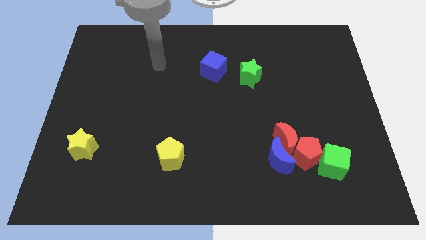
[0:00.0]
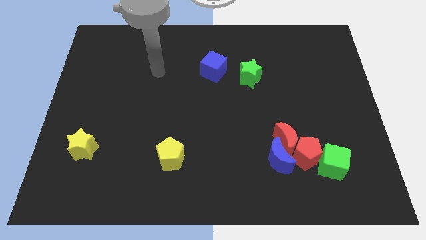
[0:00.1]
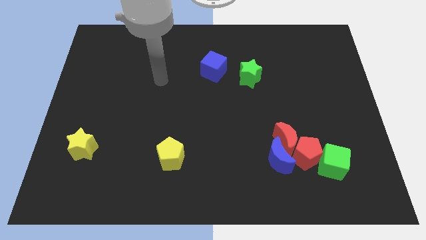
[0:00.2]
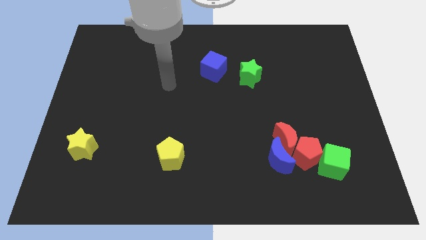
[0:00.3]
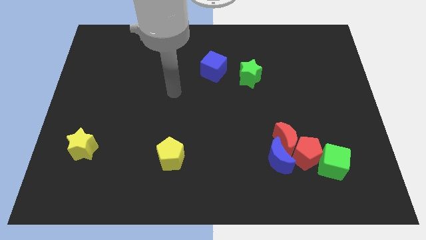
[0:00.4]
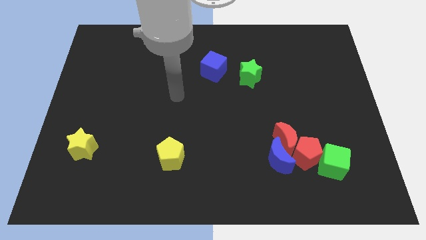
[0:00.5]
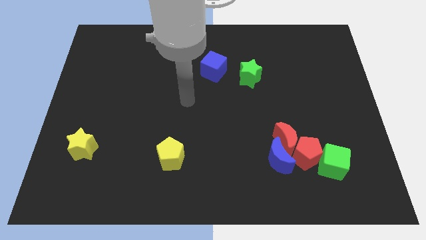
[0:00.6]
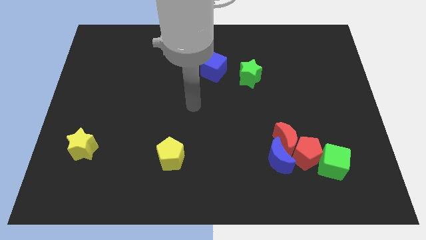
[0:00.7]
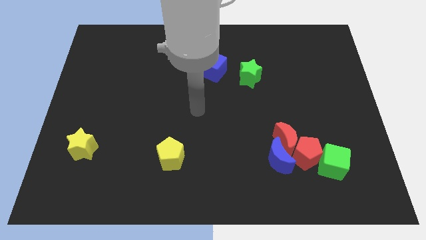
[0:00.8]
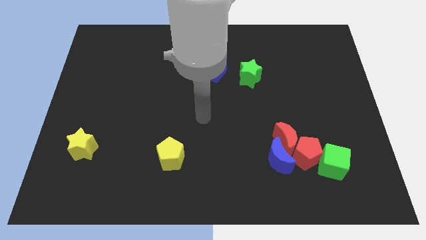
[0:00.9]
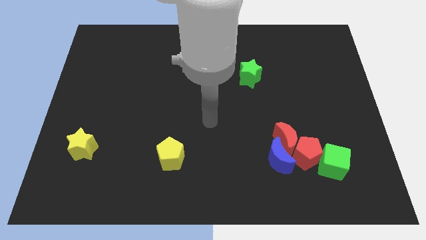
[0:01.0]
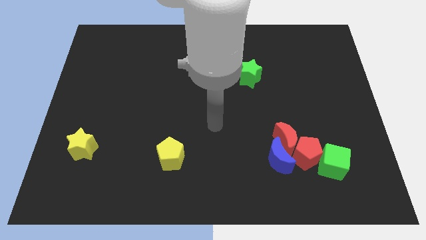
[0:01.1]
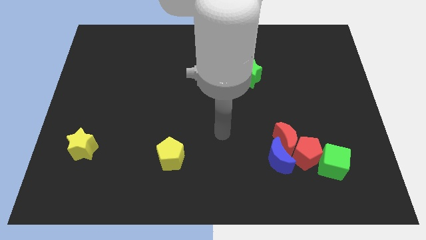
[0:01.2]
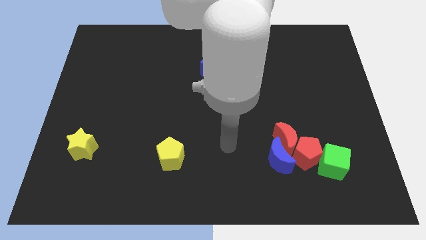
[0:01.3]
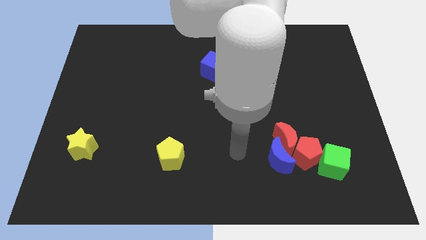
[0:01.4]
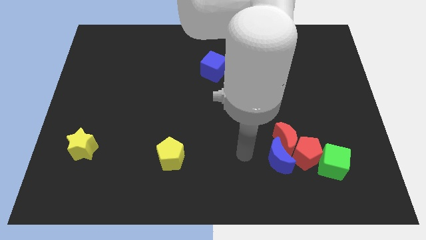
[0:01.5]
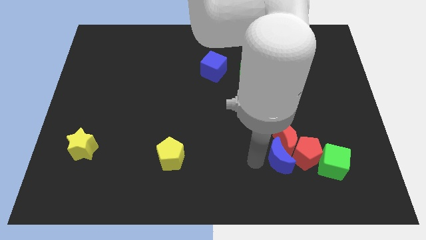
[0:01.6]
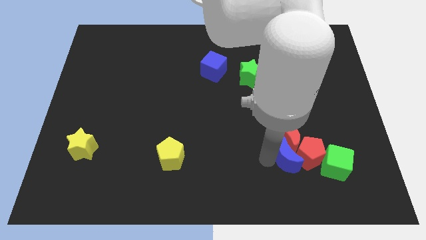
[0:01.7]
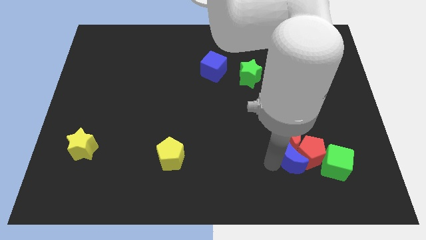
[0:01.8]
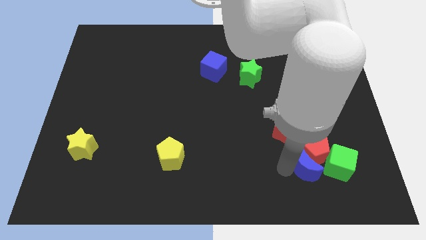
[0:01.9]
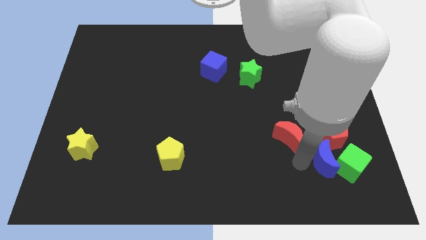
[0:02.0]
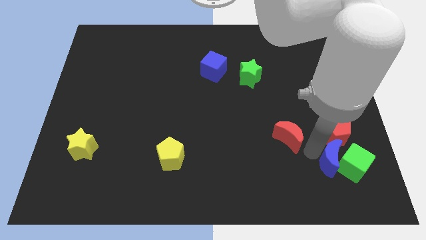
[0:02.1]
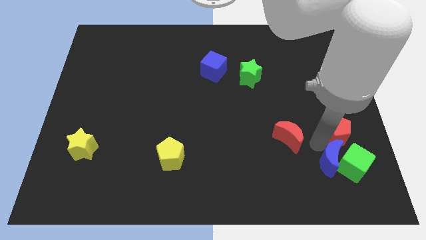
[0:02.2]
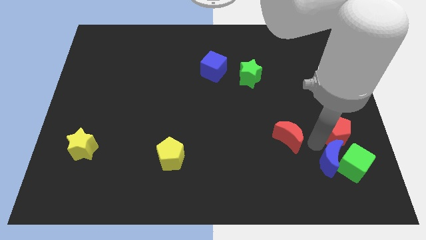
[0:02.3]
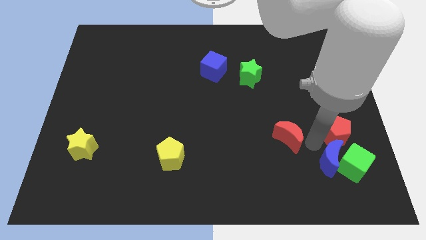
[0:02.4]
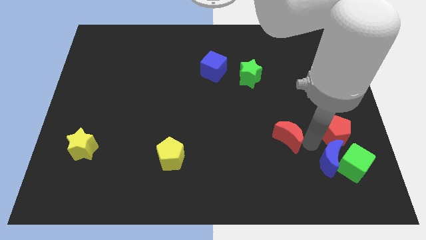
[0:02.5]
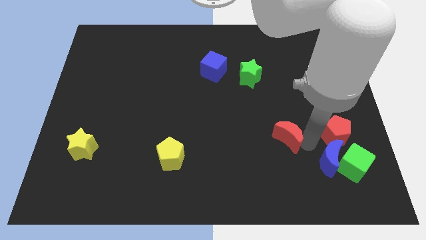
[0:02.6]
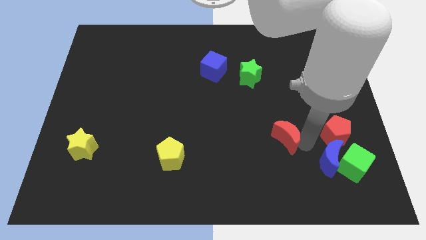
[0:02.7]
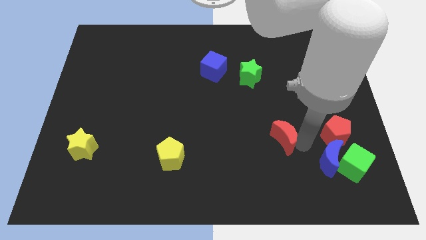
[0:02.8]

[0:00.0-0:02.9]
move the red moon away from the red pentagon and blue moon

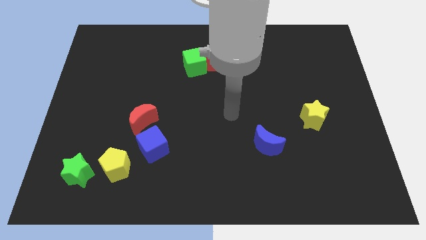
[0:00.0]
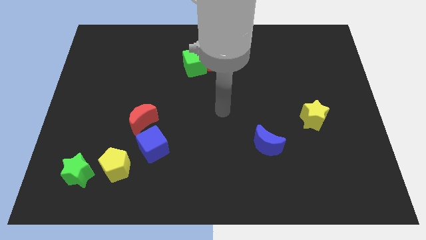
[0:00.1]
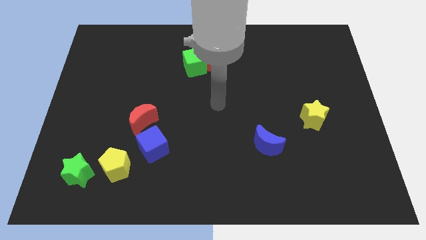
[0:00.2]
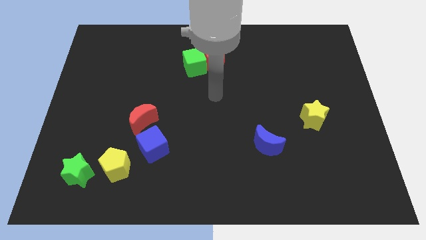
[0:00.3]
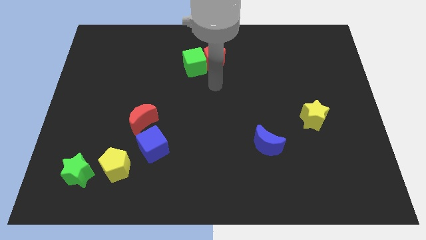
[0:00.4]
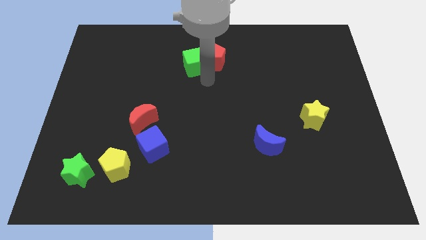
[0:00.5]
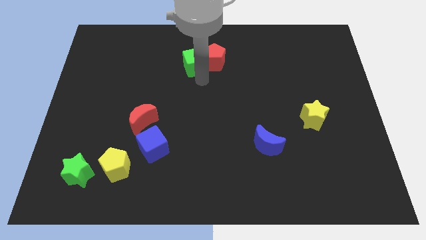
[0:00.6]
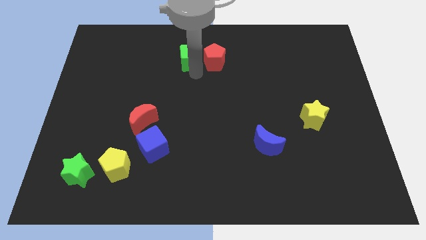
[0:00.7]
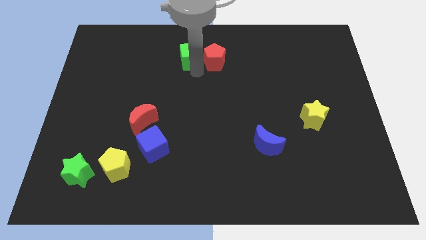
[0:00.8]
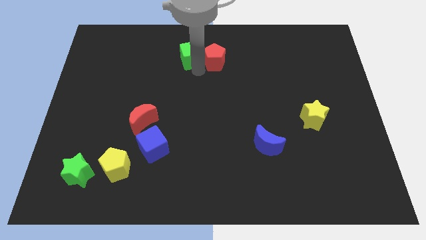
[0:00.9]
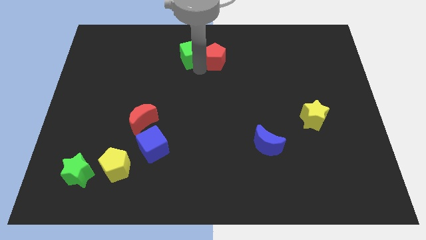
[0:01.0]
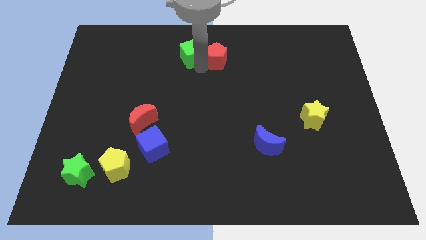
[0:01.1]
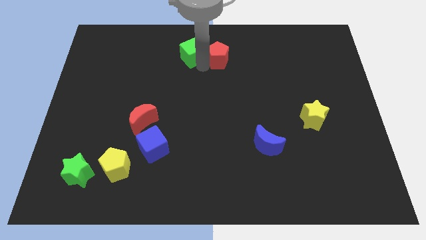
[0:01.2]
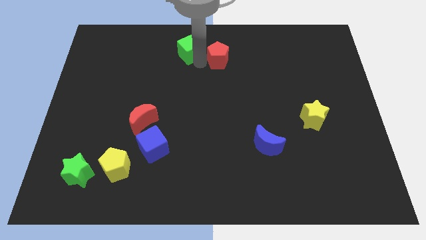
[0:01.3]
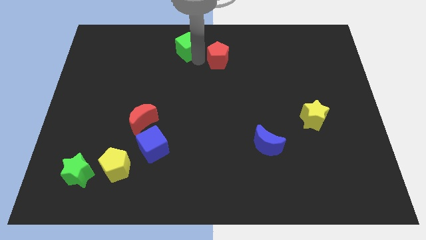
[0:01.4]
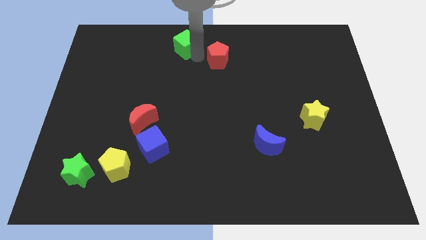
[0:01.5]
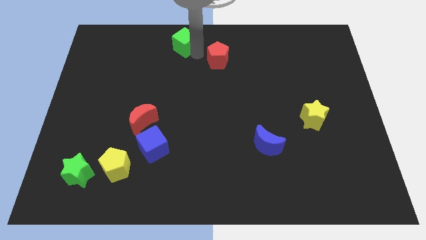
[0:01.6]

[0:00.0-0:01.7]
pull the red pentagon apart from the green cube

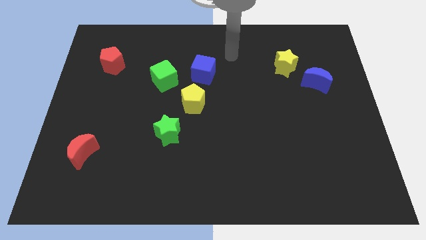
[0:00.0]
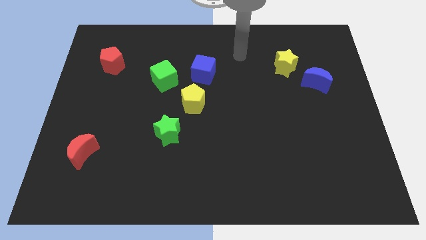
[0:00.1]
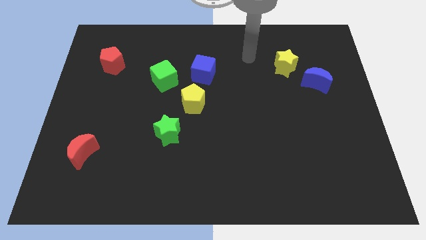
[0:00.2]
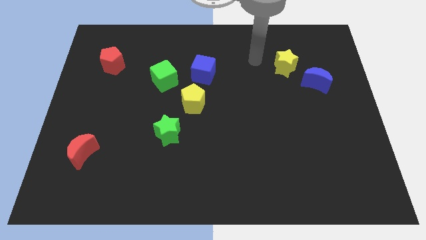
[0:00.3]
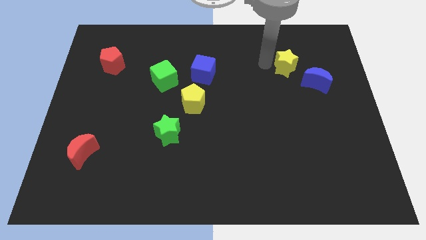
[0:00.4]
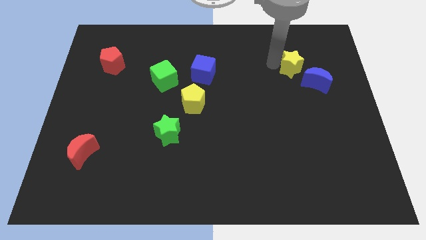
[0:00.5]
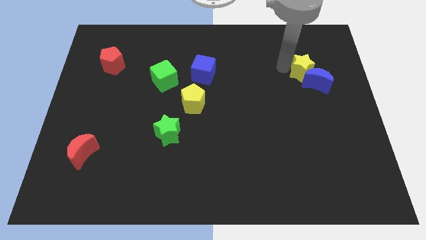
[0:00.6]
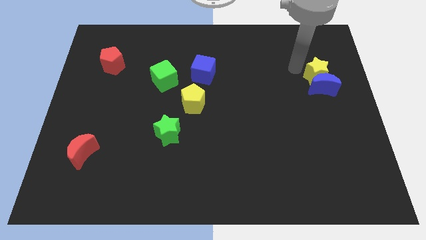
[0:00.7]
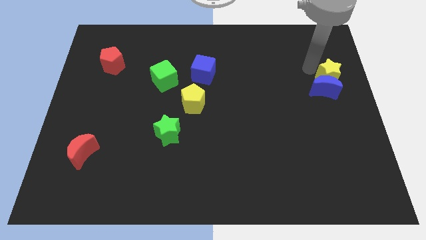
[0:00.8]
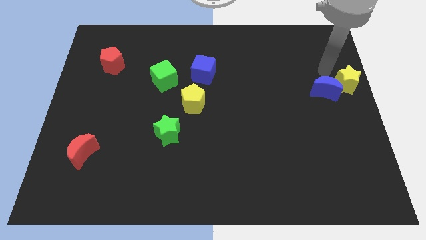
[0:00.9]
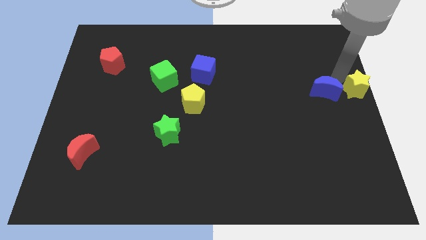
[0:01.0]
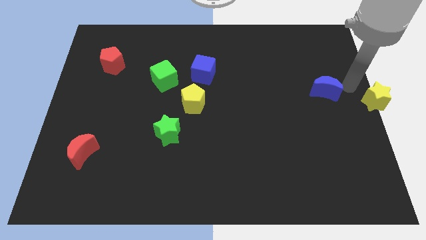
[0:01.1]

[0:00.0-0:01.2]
pull the blue moon apart from the yellow star

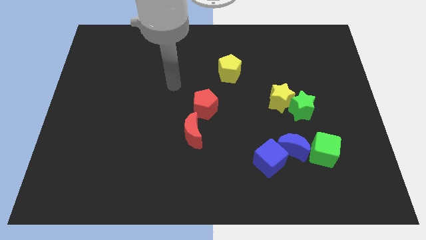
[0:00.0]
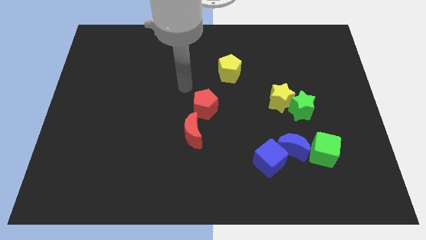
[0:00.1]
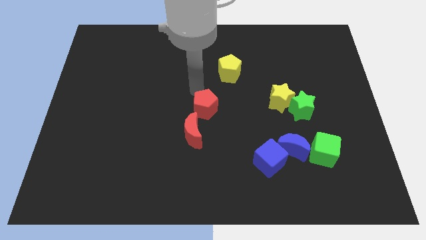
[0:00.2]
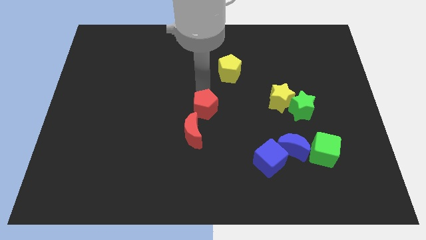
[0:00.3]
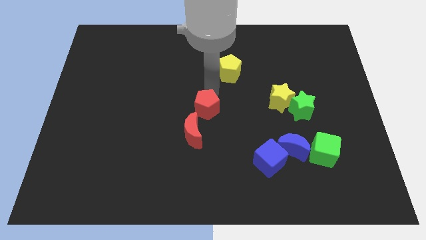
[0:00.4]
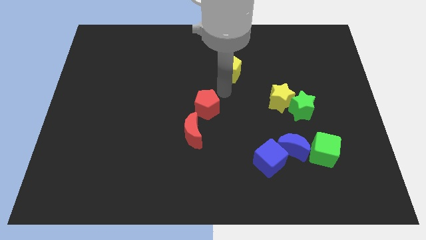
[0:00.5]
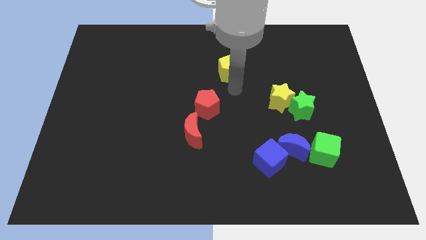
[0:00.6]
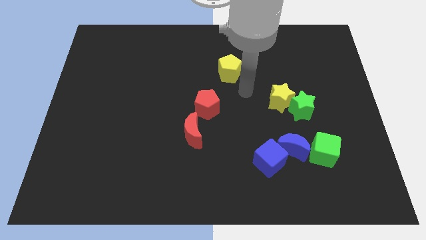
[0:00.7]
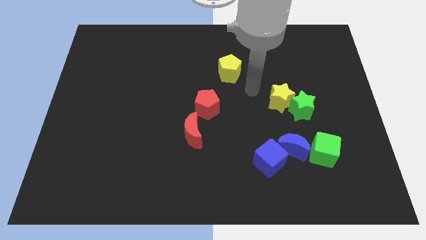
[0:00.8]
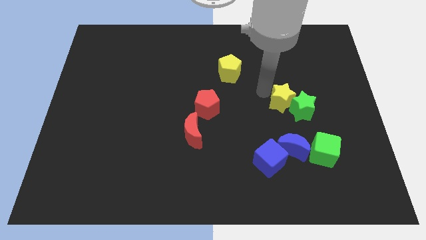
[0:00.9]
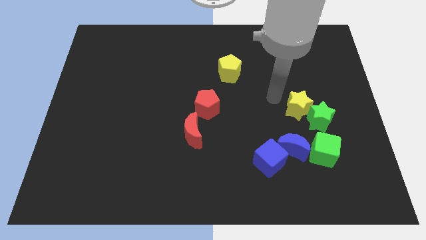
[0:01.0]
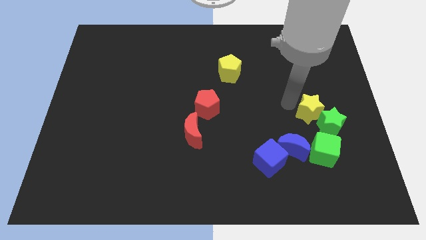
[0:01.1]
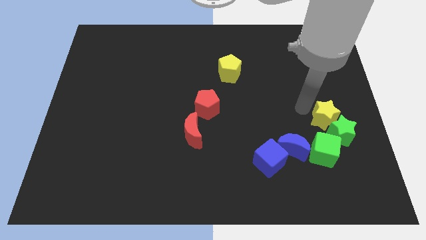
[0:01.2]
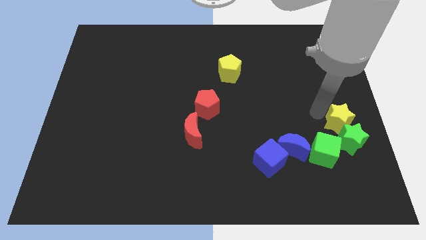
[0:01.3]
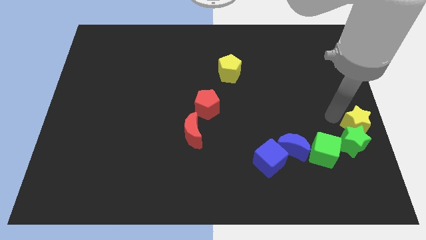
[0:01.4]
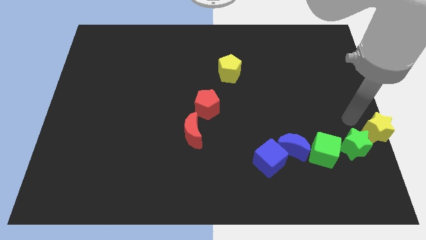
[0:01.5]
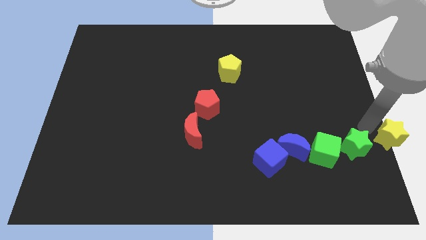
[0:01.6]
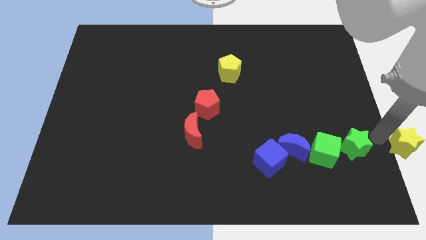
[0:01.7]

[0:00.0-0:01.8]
move the green star away from the yellow star

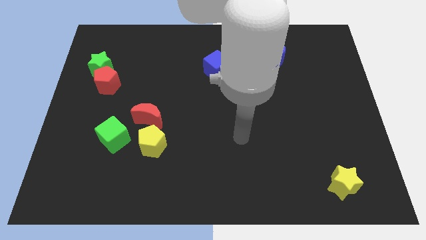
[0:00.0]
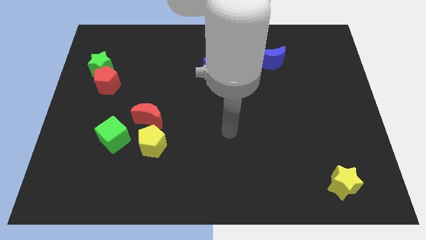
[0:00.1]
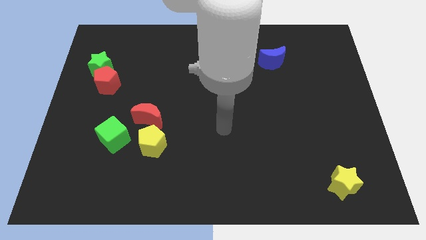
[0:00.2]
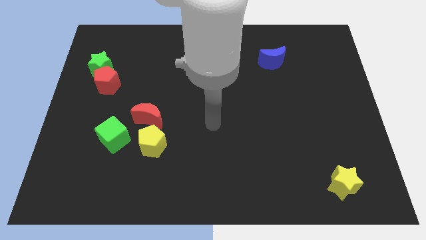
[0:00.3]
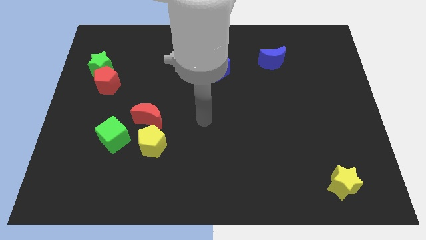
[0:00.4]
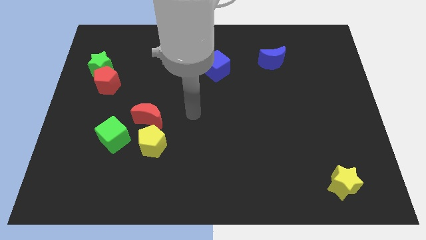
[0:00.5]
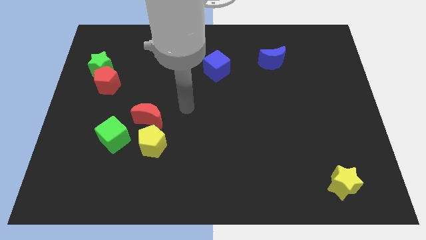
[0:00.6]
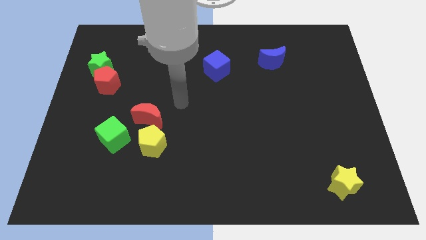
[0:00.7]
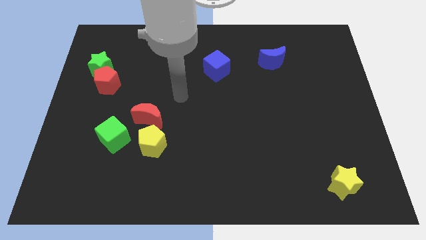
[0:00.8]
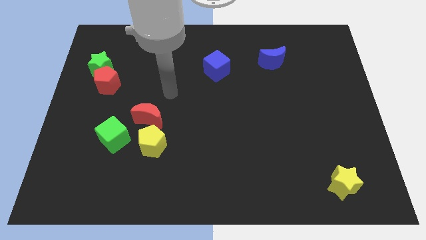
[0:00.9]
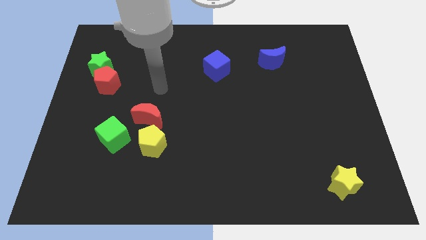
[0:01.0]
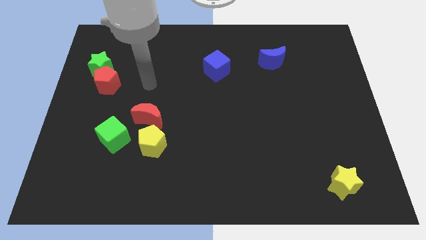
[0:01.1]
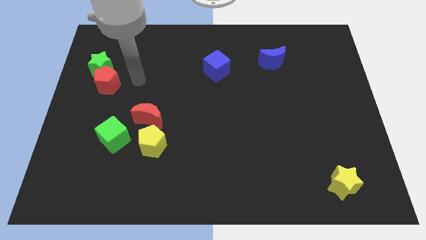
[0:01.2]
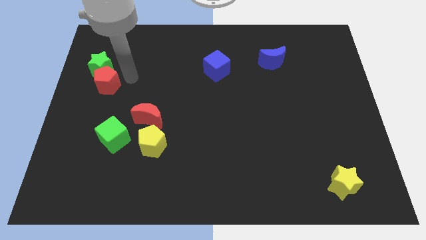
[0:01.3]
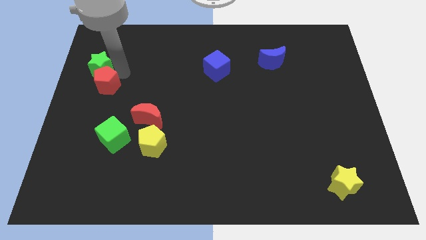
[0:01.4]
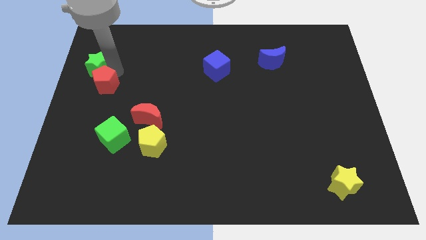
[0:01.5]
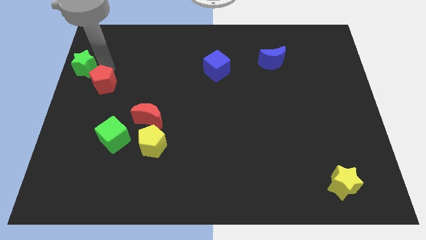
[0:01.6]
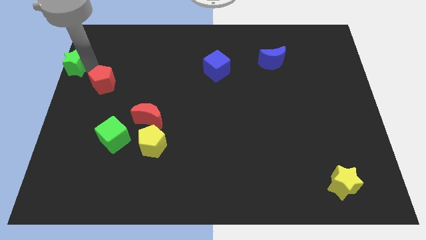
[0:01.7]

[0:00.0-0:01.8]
move the red pentagon away from the green star
